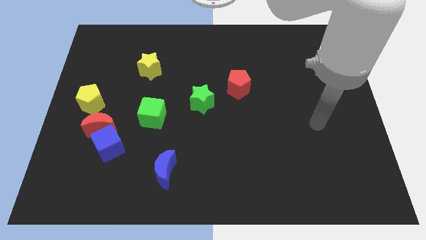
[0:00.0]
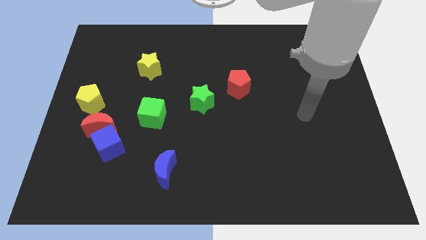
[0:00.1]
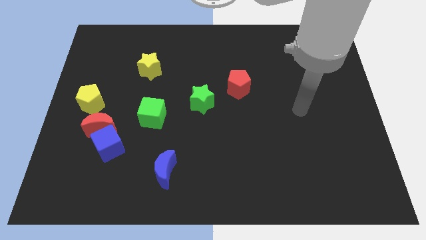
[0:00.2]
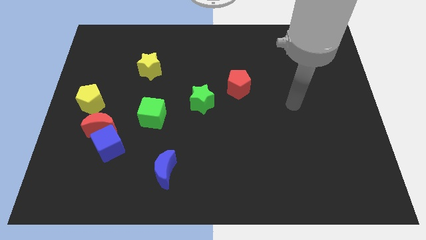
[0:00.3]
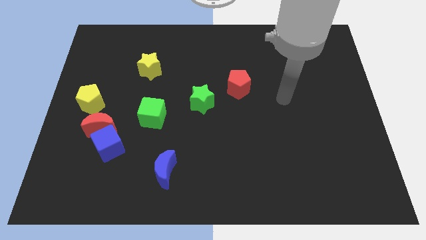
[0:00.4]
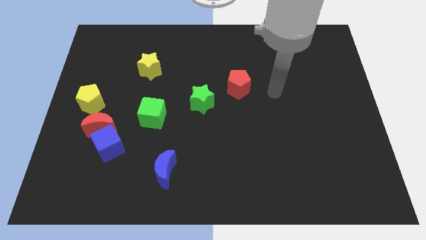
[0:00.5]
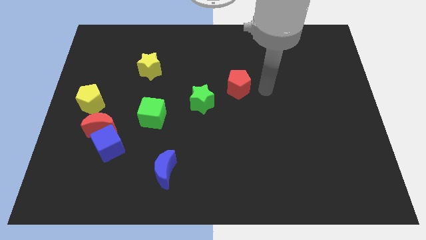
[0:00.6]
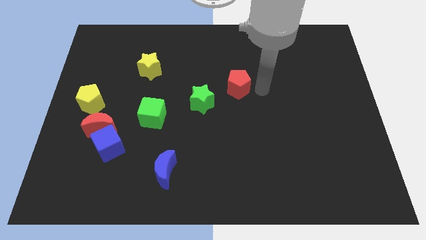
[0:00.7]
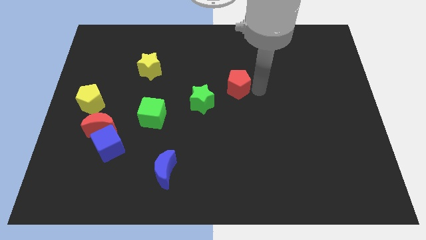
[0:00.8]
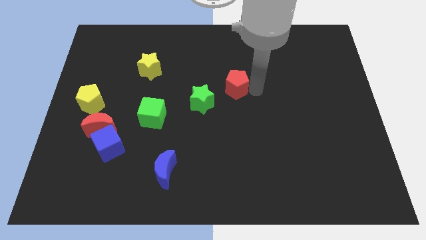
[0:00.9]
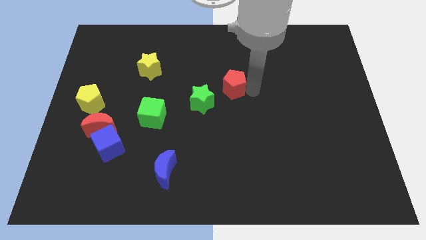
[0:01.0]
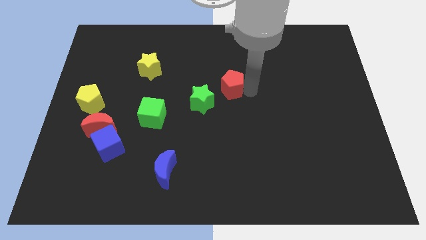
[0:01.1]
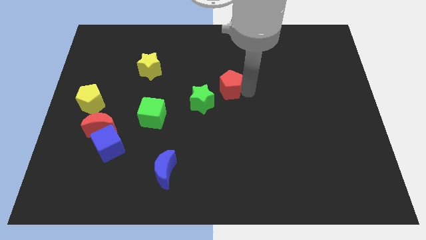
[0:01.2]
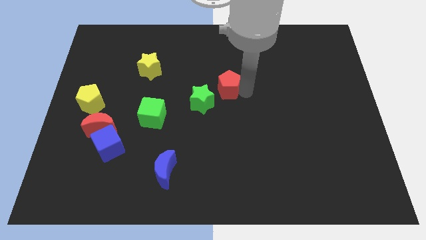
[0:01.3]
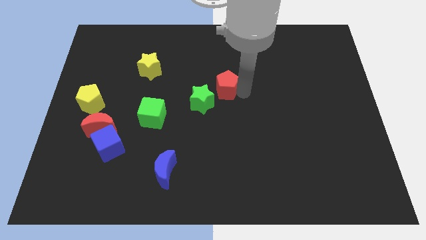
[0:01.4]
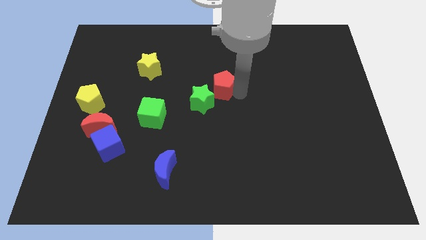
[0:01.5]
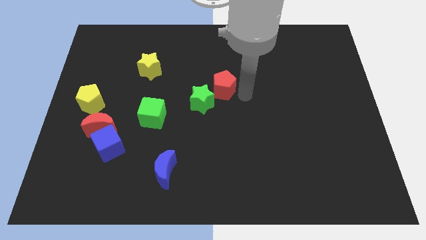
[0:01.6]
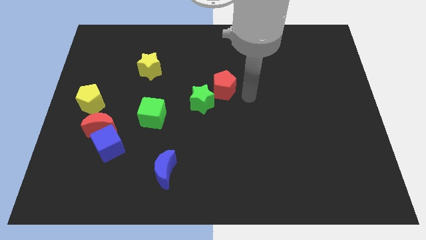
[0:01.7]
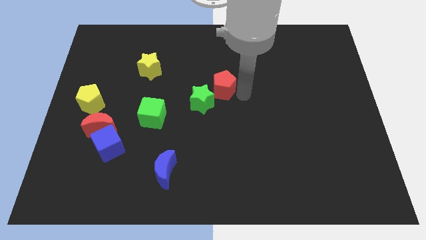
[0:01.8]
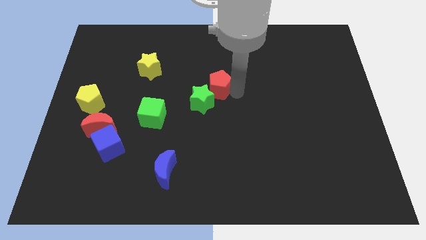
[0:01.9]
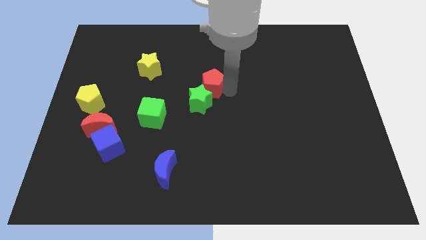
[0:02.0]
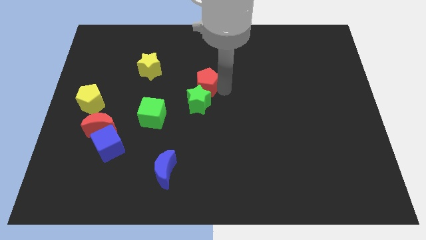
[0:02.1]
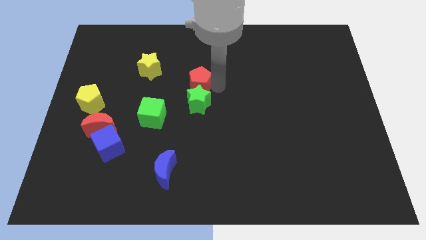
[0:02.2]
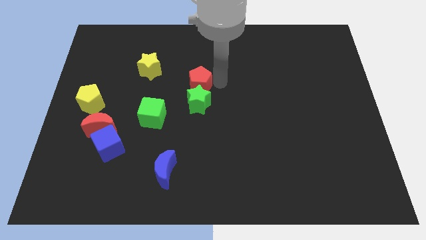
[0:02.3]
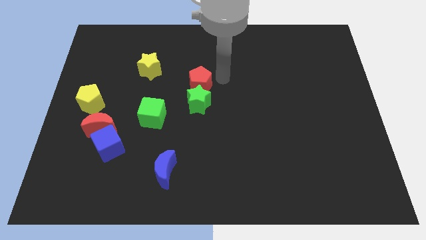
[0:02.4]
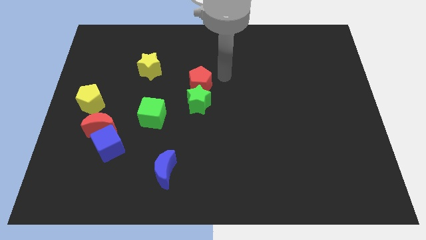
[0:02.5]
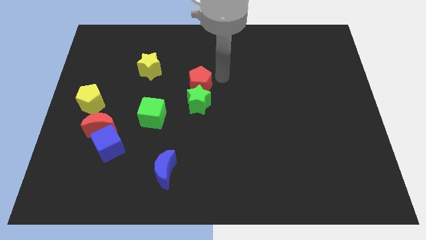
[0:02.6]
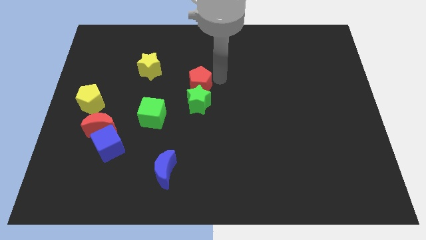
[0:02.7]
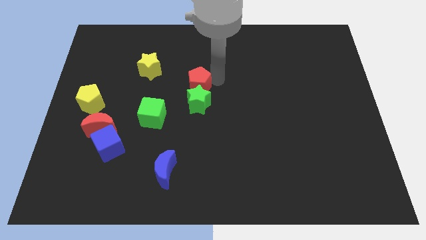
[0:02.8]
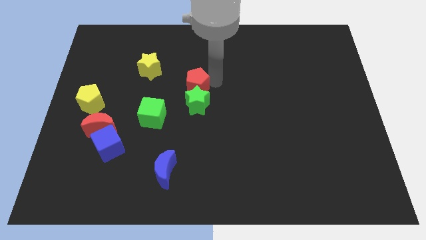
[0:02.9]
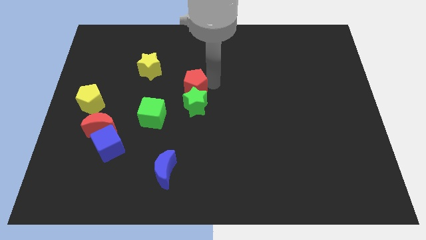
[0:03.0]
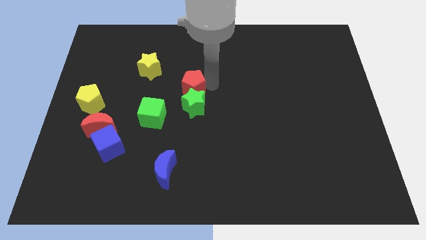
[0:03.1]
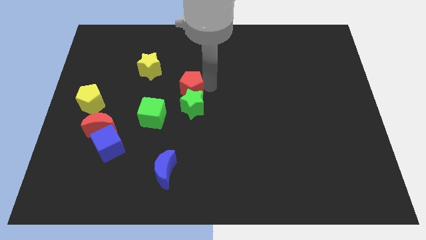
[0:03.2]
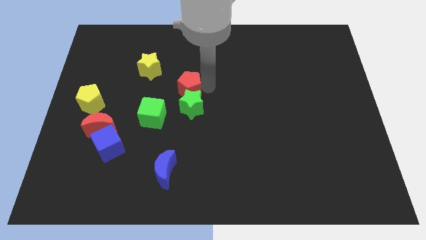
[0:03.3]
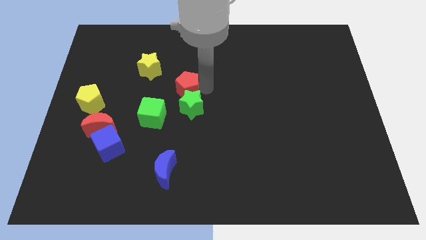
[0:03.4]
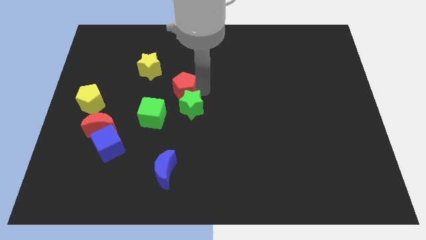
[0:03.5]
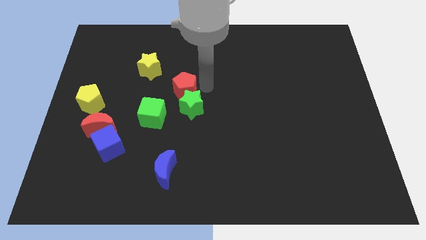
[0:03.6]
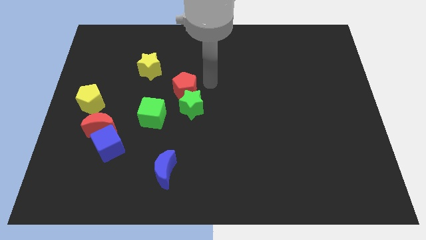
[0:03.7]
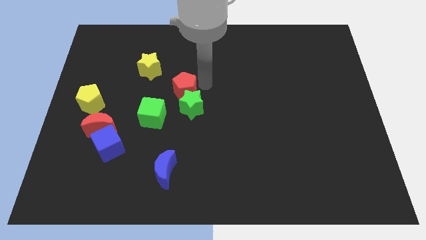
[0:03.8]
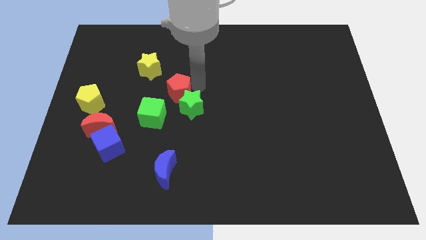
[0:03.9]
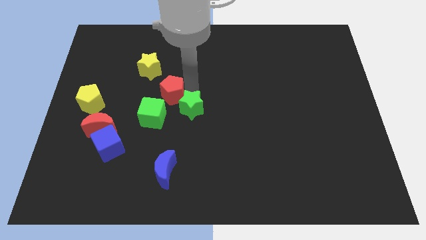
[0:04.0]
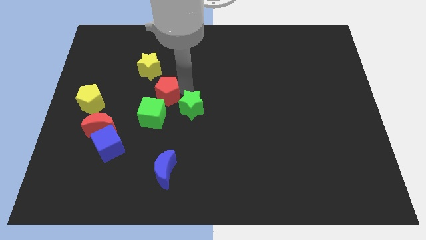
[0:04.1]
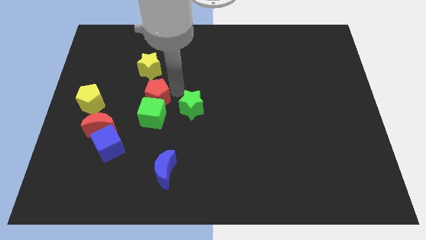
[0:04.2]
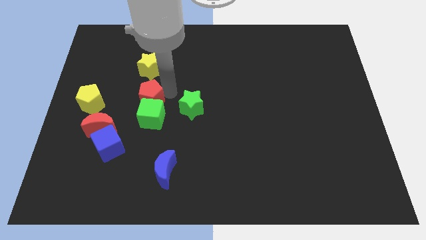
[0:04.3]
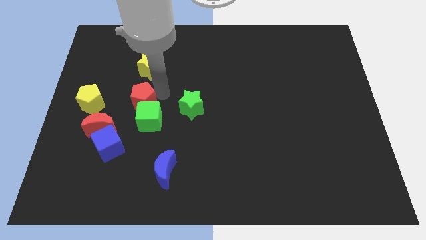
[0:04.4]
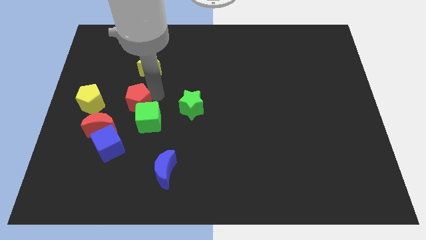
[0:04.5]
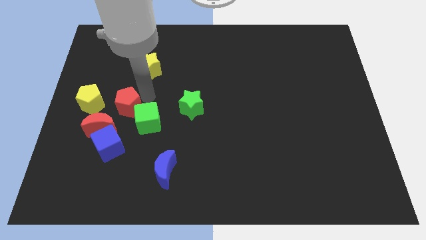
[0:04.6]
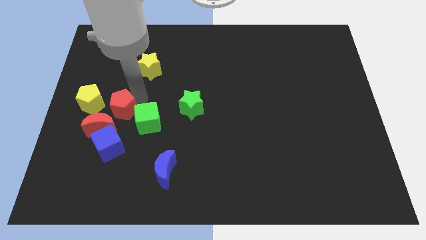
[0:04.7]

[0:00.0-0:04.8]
move the red pentagon to the bottom right side of the yellow pentagon

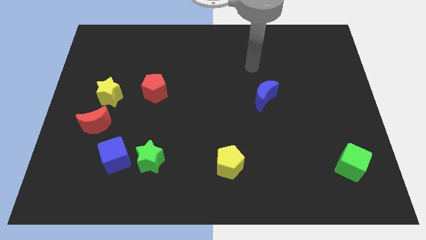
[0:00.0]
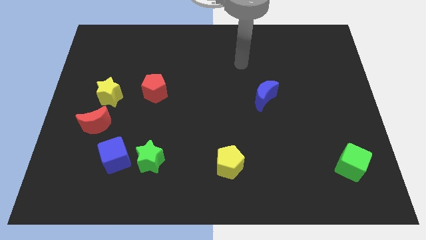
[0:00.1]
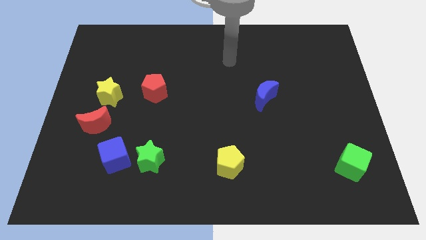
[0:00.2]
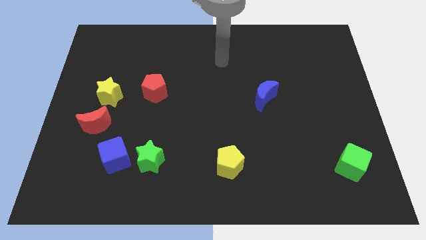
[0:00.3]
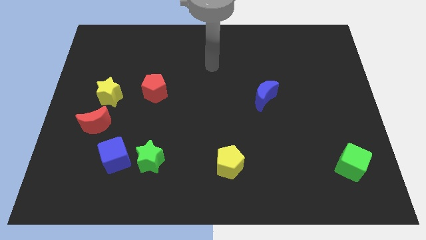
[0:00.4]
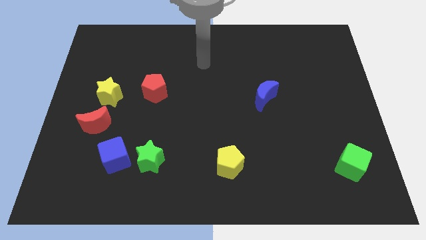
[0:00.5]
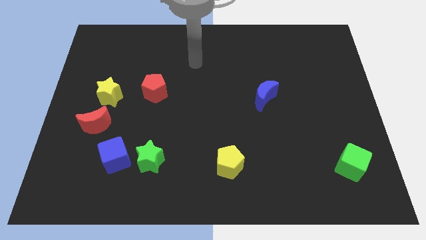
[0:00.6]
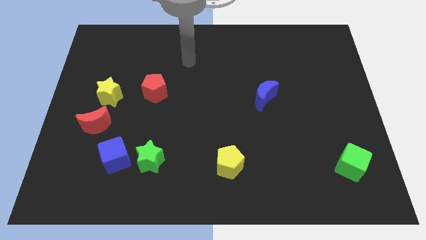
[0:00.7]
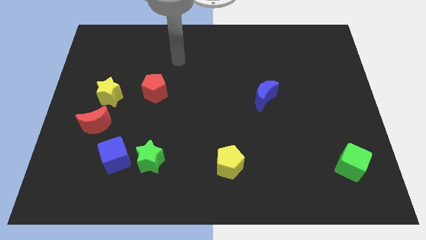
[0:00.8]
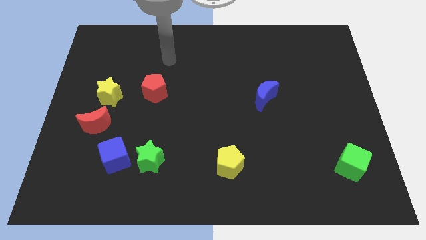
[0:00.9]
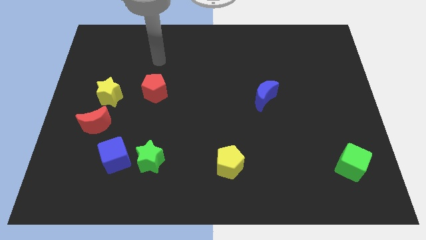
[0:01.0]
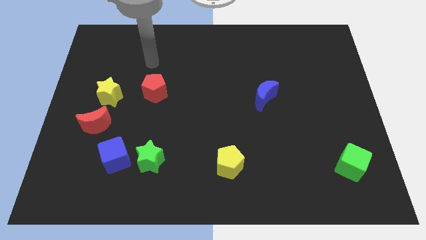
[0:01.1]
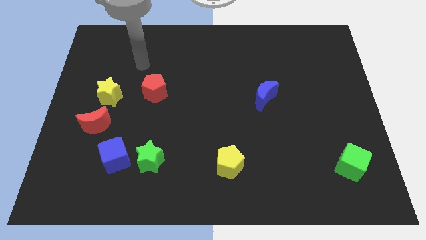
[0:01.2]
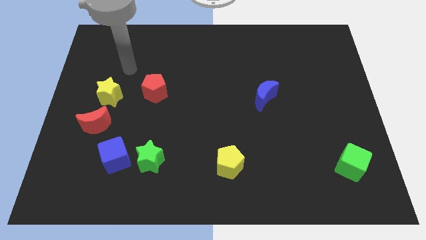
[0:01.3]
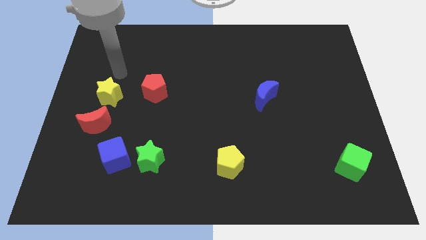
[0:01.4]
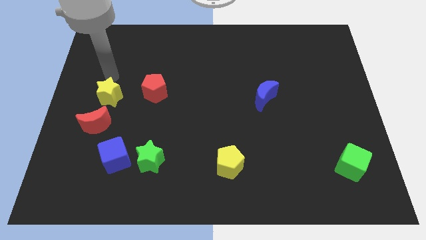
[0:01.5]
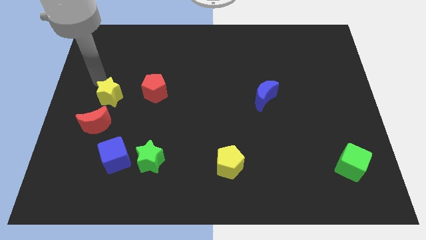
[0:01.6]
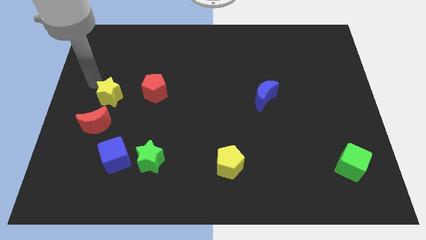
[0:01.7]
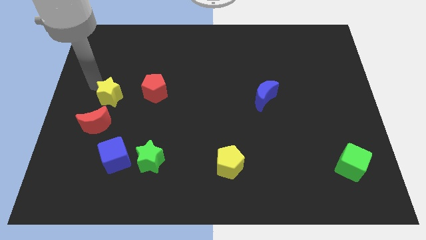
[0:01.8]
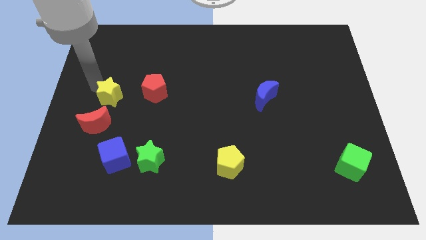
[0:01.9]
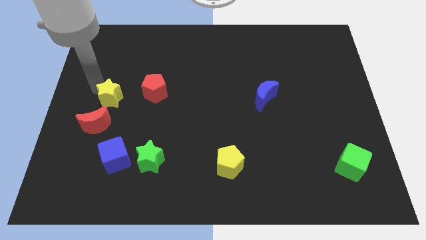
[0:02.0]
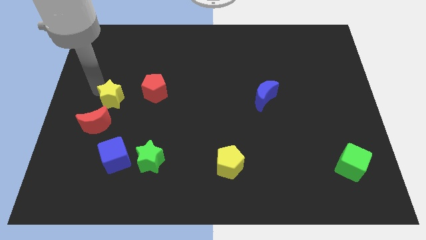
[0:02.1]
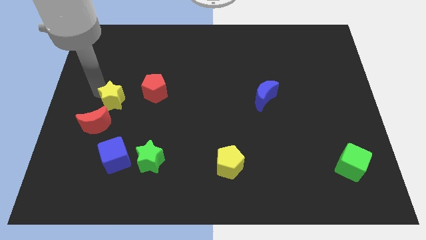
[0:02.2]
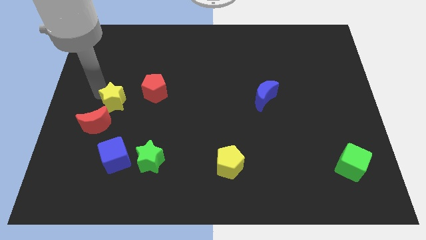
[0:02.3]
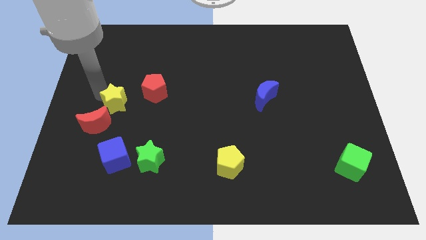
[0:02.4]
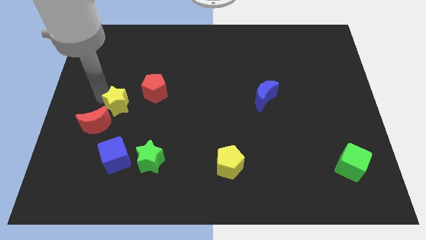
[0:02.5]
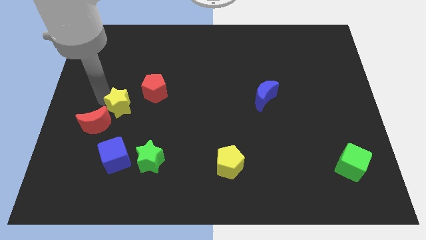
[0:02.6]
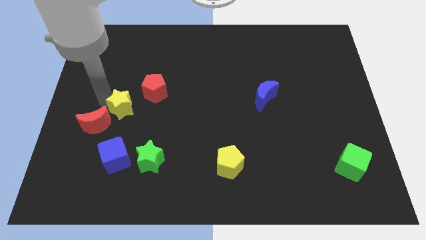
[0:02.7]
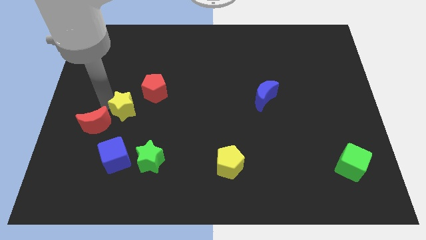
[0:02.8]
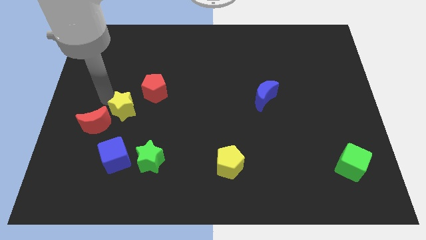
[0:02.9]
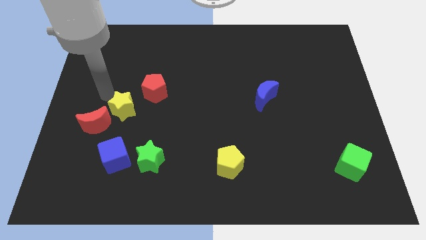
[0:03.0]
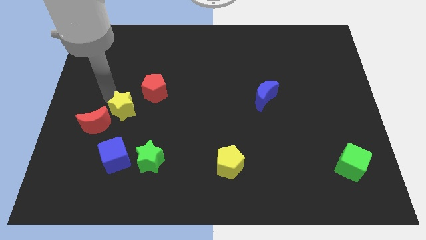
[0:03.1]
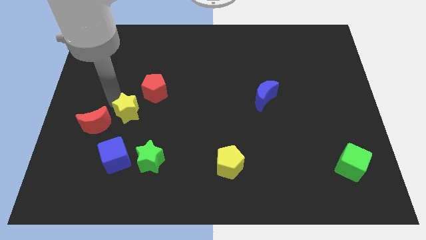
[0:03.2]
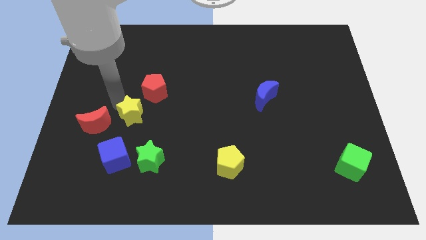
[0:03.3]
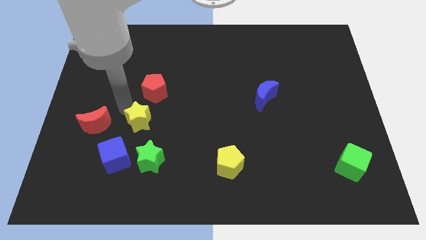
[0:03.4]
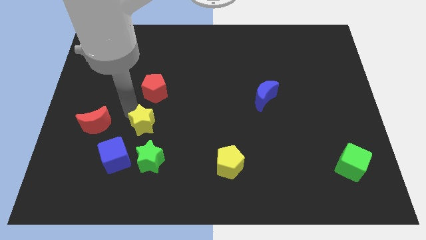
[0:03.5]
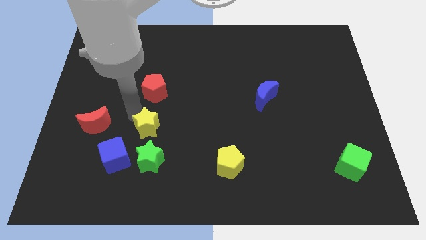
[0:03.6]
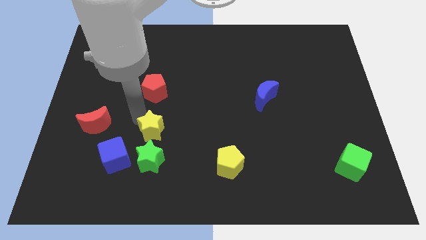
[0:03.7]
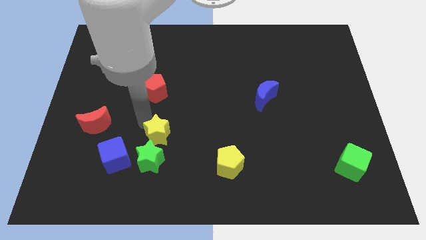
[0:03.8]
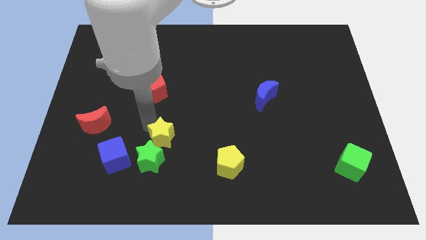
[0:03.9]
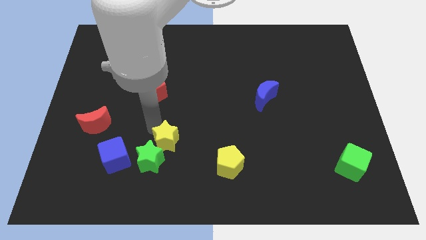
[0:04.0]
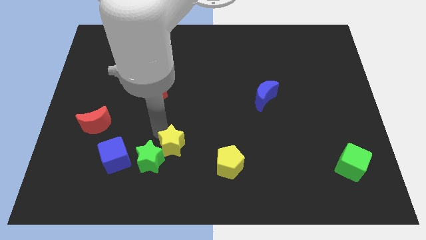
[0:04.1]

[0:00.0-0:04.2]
slide the yellow star to the left side of the yellow pentagon
